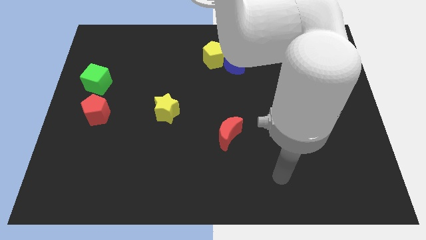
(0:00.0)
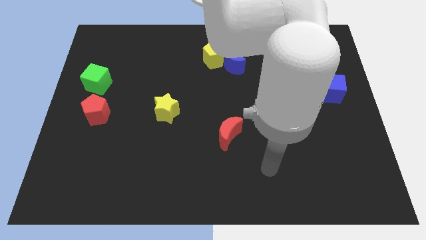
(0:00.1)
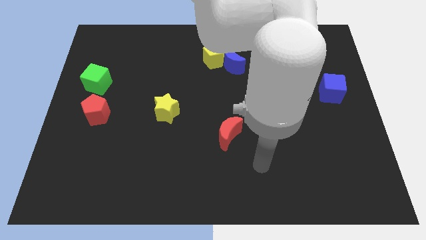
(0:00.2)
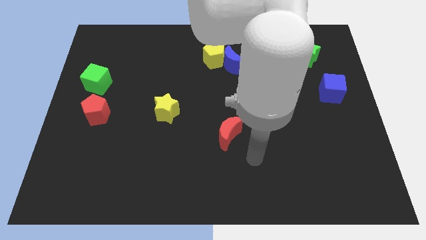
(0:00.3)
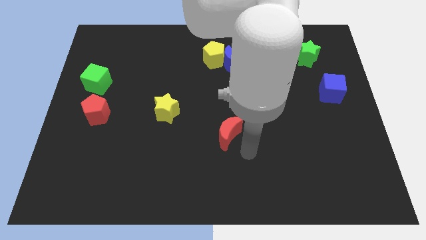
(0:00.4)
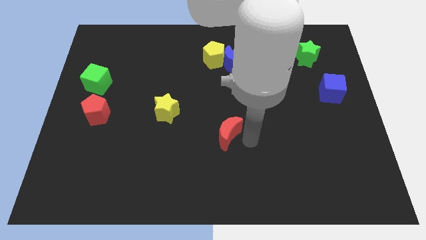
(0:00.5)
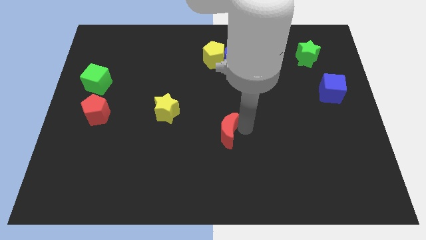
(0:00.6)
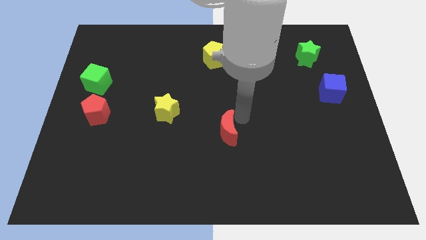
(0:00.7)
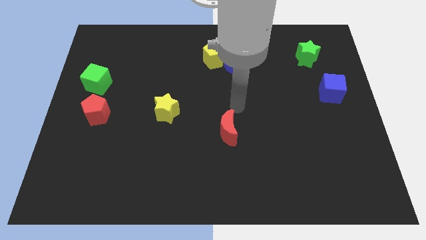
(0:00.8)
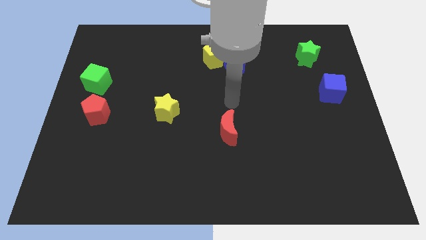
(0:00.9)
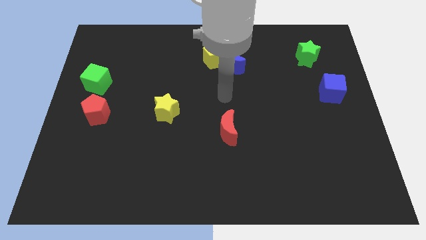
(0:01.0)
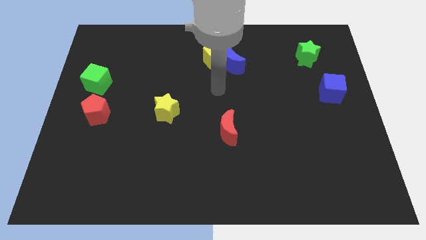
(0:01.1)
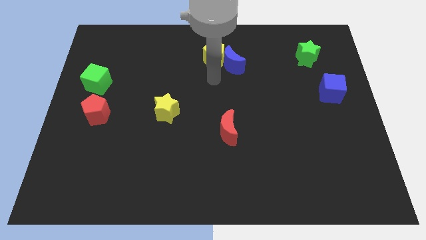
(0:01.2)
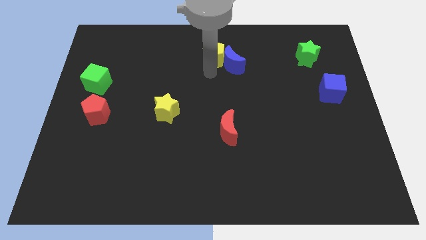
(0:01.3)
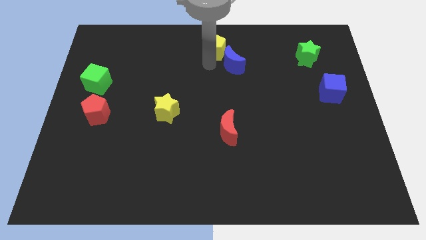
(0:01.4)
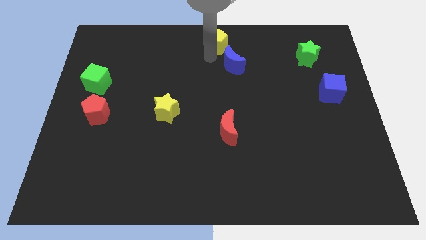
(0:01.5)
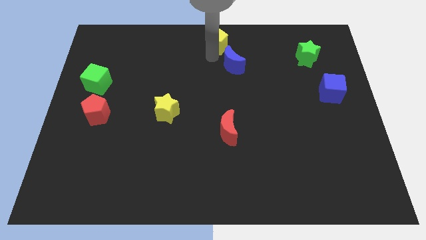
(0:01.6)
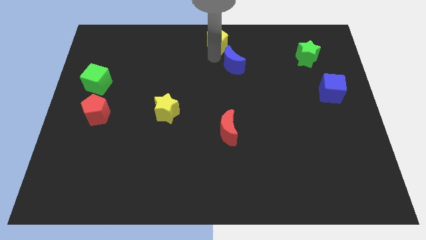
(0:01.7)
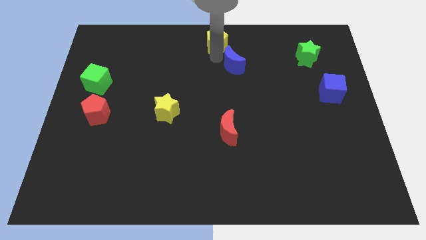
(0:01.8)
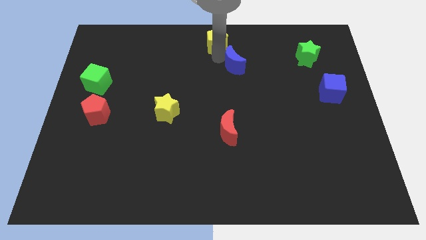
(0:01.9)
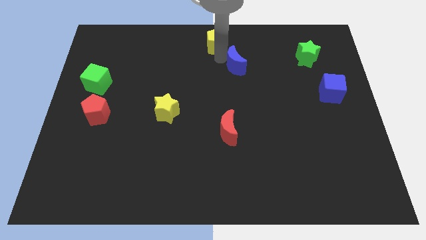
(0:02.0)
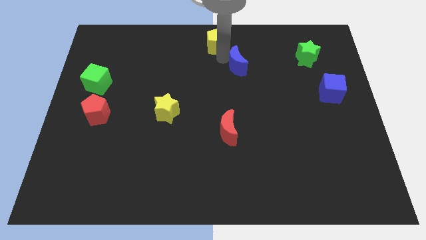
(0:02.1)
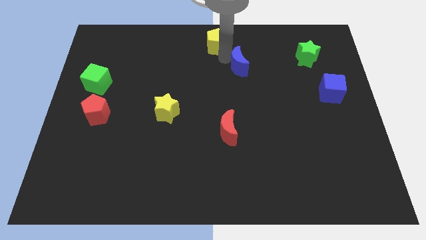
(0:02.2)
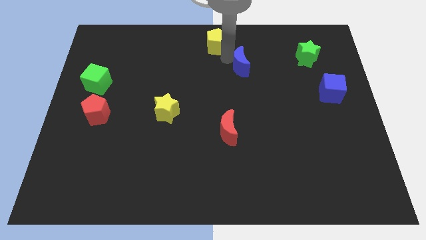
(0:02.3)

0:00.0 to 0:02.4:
pull the blue moon apart from the yellow pentagon

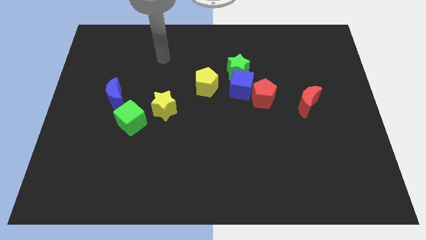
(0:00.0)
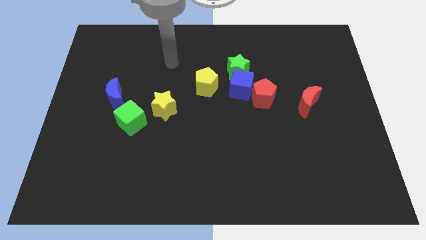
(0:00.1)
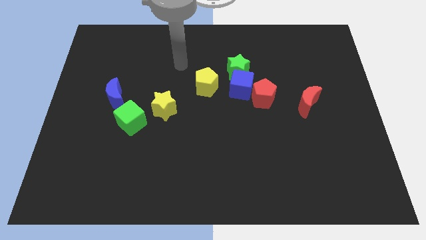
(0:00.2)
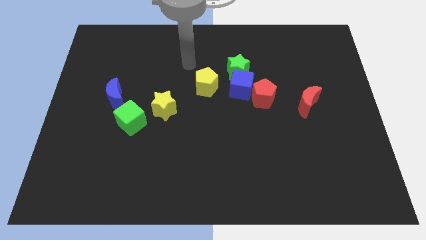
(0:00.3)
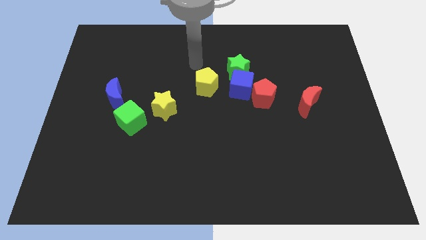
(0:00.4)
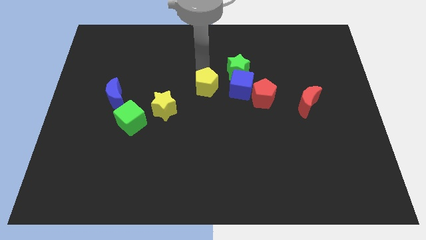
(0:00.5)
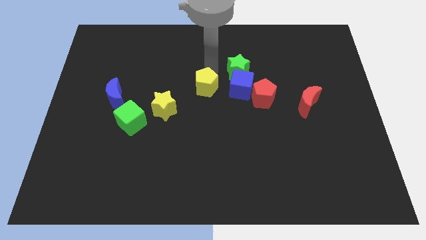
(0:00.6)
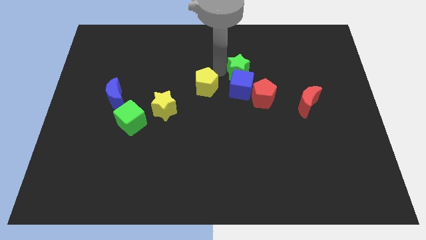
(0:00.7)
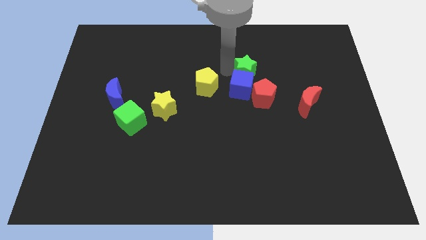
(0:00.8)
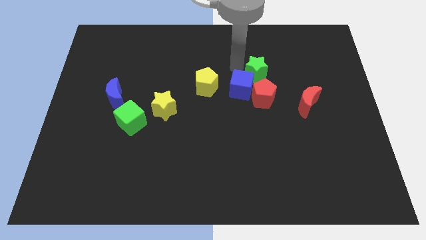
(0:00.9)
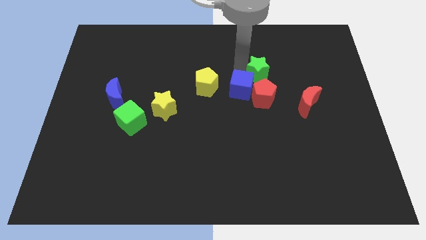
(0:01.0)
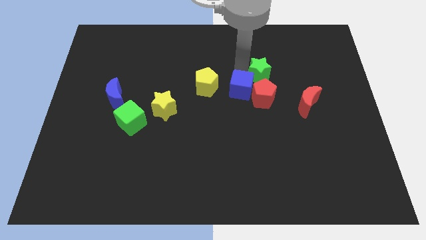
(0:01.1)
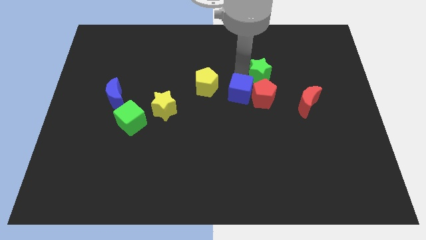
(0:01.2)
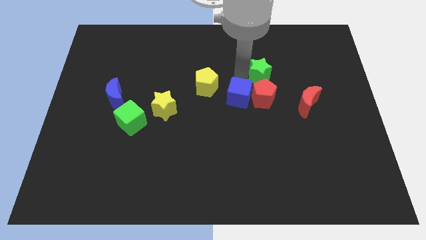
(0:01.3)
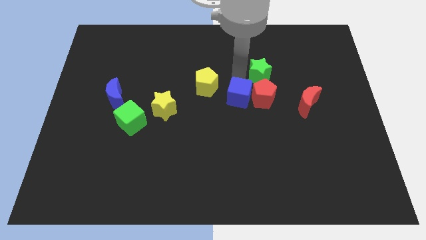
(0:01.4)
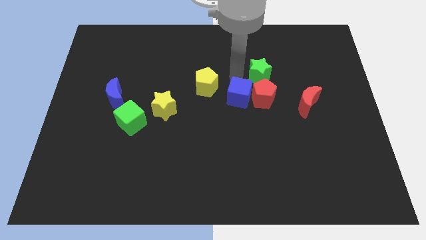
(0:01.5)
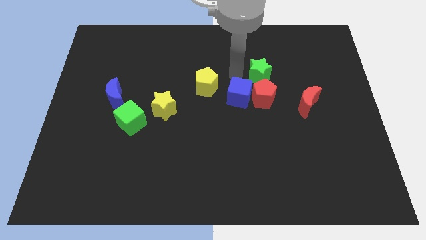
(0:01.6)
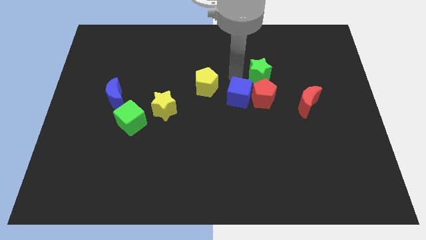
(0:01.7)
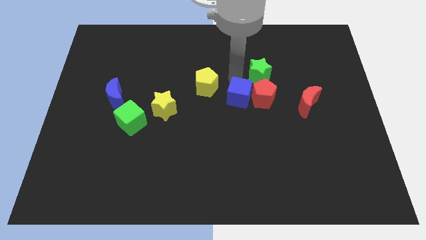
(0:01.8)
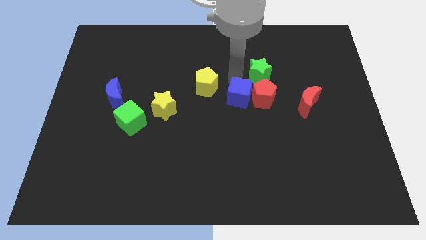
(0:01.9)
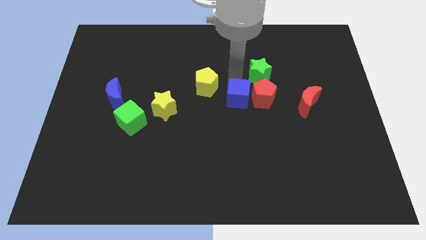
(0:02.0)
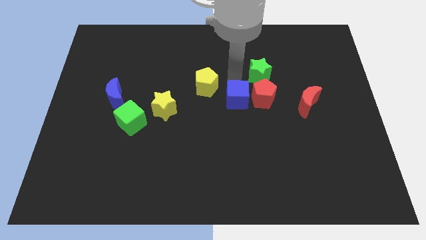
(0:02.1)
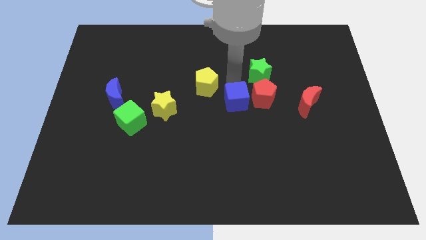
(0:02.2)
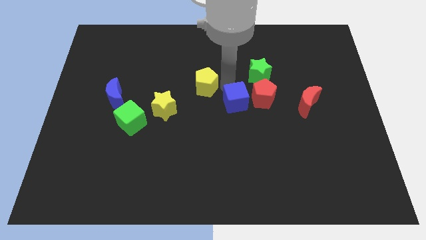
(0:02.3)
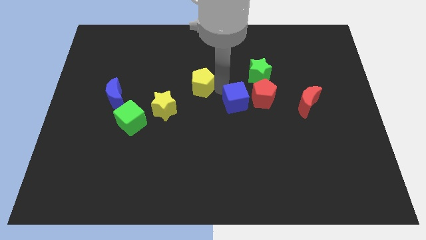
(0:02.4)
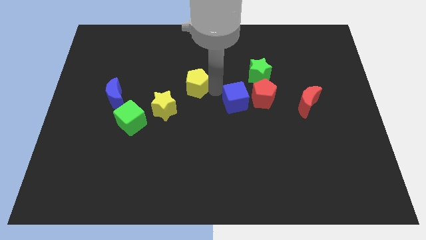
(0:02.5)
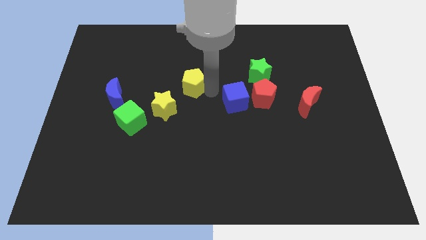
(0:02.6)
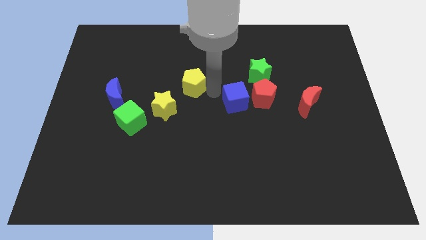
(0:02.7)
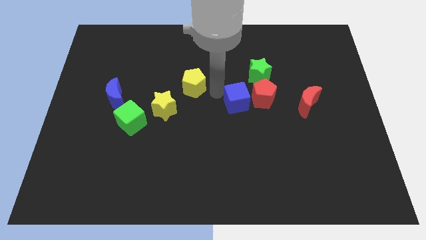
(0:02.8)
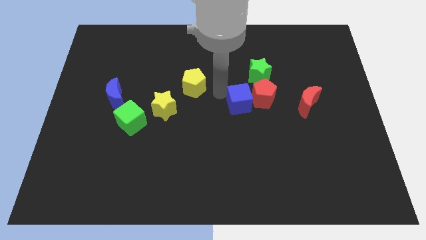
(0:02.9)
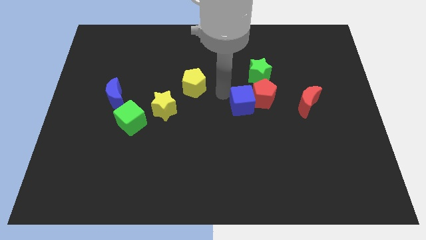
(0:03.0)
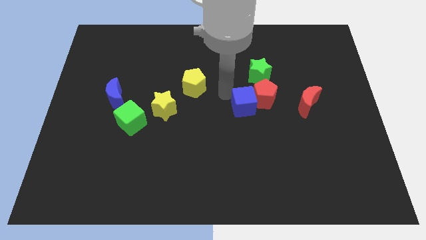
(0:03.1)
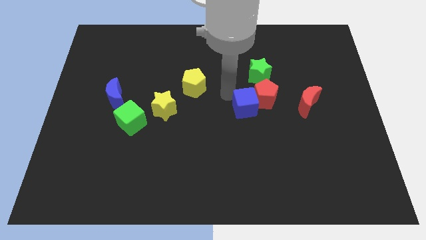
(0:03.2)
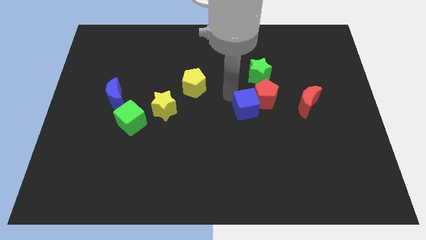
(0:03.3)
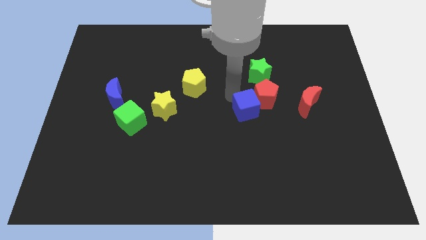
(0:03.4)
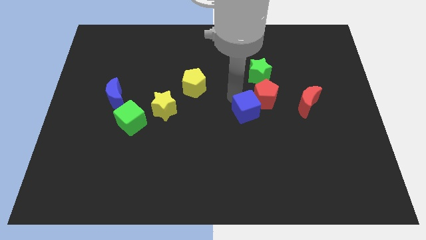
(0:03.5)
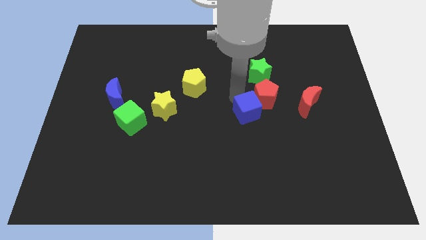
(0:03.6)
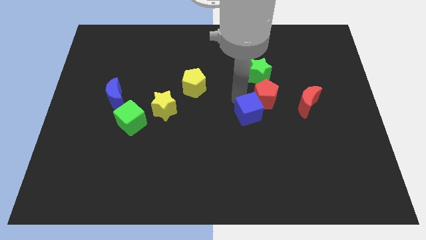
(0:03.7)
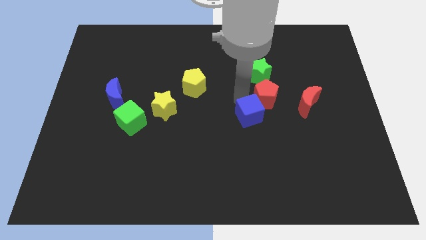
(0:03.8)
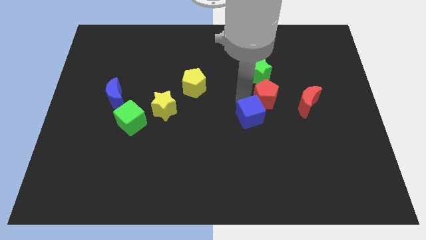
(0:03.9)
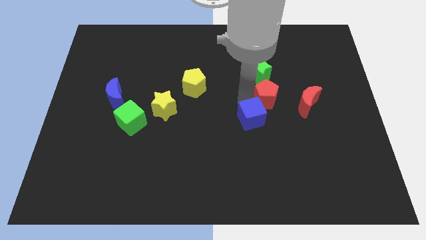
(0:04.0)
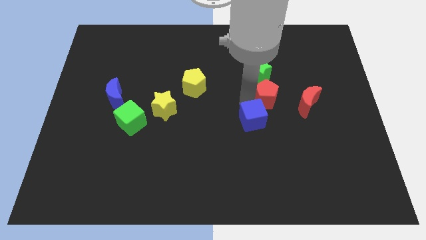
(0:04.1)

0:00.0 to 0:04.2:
separate the blue cube from the clump

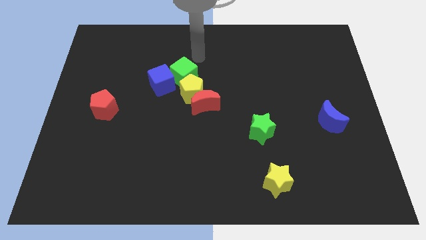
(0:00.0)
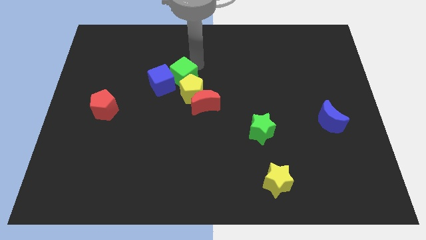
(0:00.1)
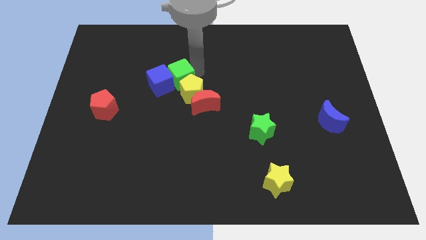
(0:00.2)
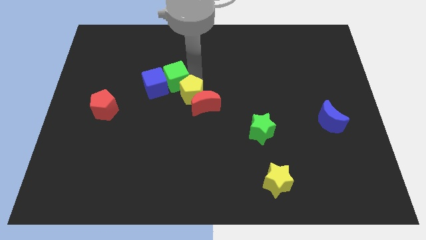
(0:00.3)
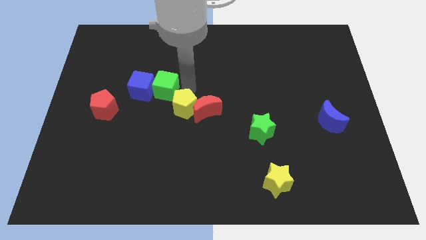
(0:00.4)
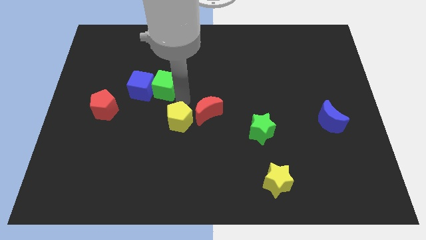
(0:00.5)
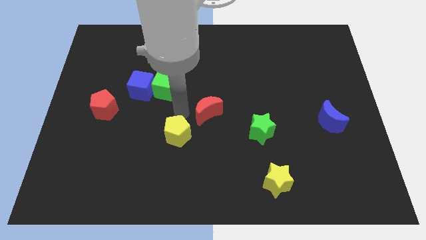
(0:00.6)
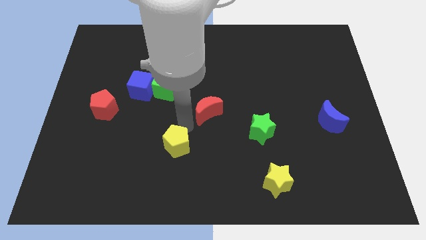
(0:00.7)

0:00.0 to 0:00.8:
pull the red moon apart from the yellow pentagon

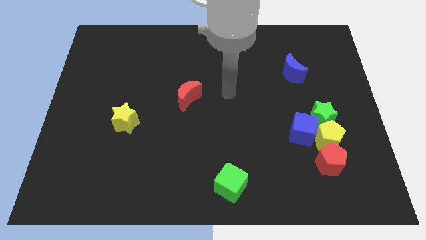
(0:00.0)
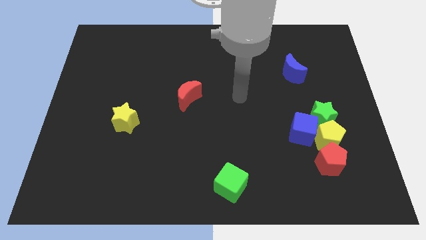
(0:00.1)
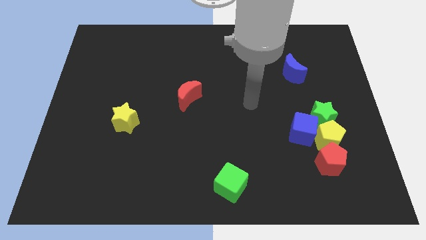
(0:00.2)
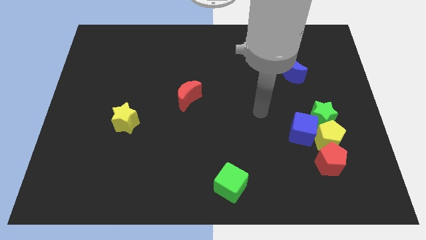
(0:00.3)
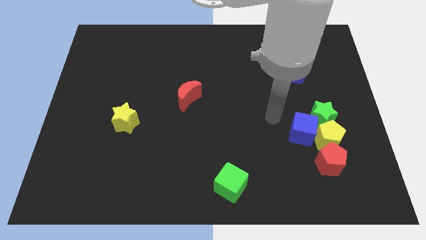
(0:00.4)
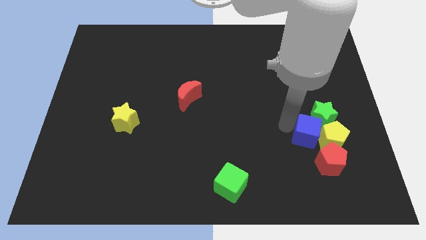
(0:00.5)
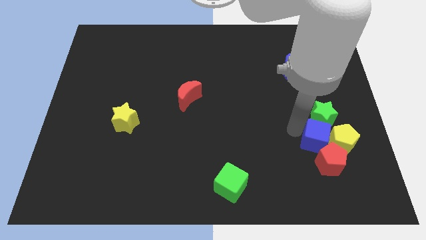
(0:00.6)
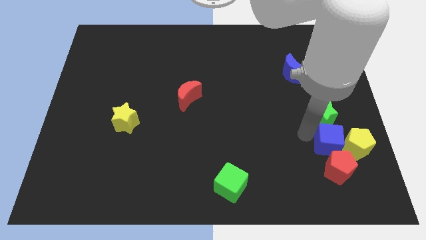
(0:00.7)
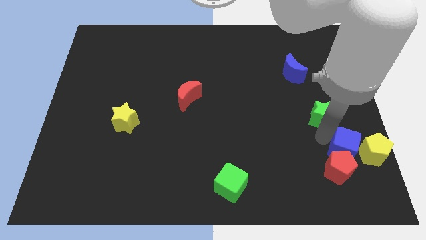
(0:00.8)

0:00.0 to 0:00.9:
separate the green star from the yellow pentagon and blue cube

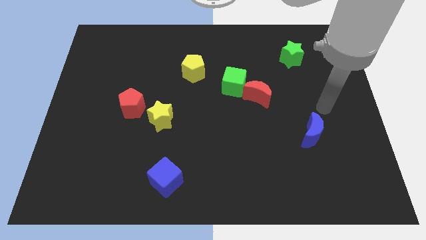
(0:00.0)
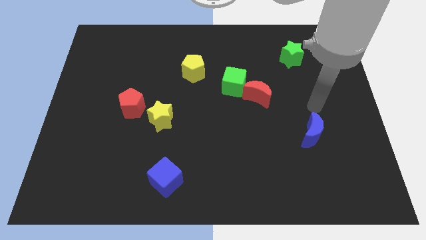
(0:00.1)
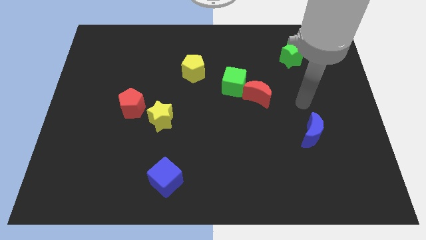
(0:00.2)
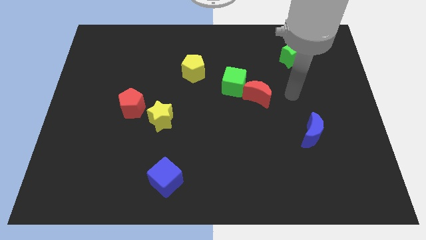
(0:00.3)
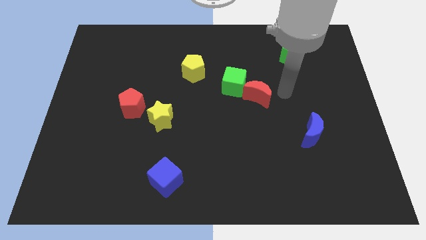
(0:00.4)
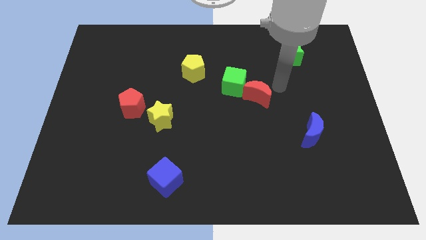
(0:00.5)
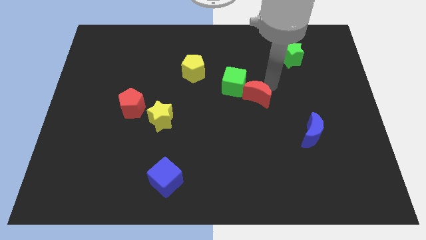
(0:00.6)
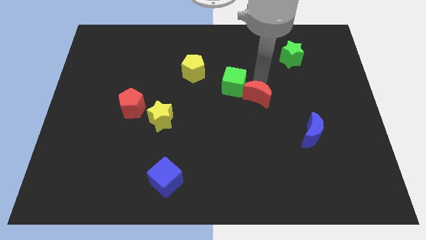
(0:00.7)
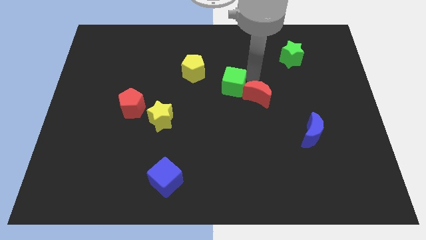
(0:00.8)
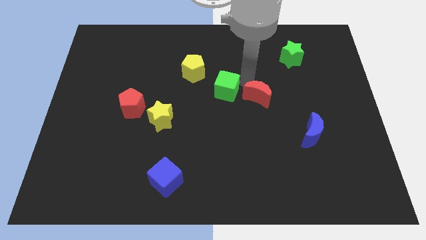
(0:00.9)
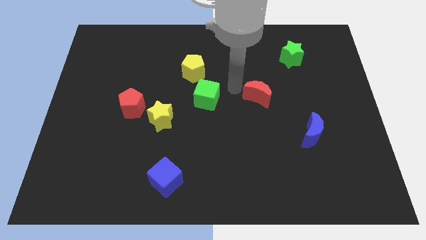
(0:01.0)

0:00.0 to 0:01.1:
pull the red moon apart from the green cube
